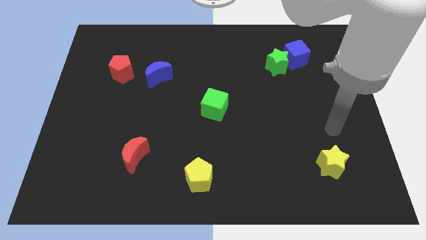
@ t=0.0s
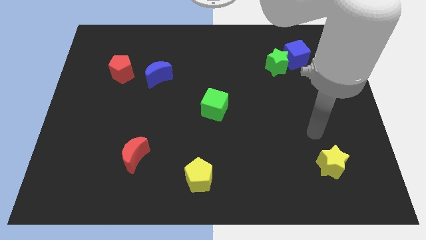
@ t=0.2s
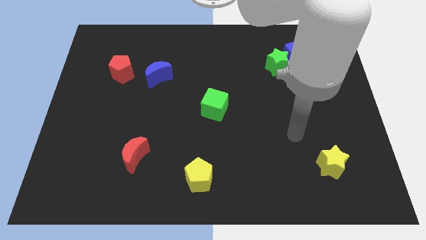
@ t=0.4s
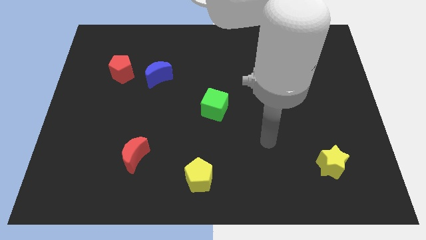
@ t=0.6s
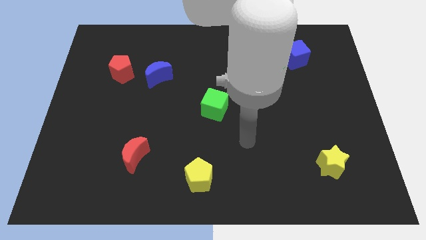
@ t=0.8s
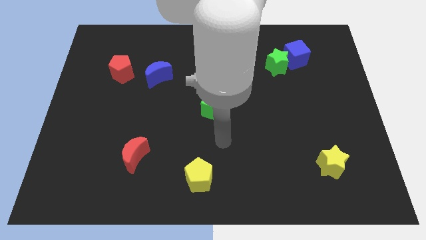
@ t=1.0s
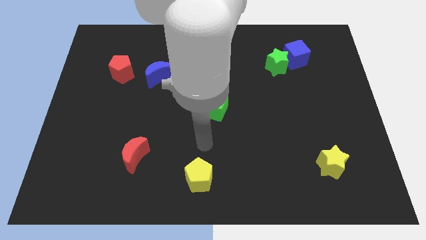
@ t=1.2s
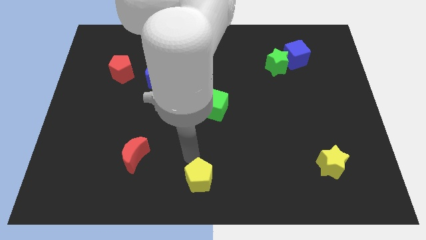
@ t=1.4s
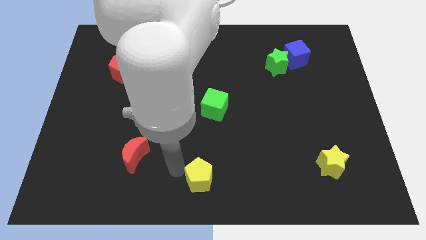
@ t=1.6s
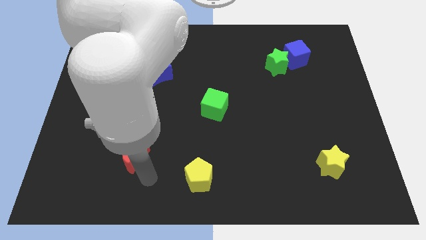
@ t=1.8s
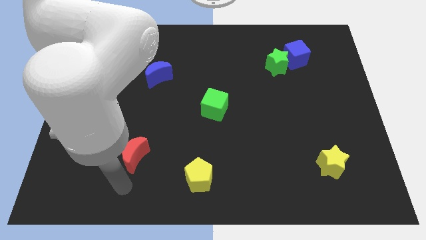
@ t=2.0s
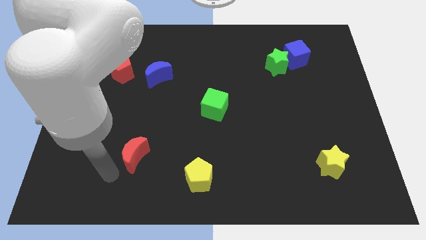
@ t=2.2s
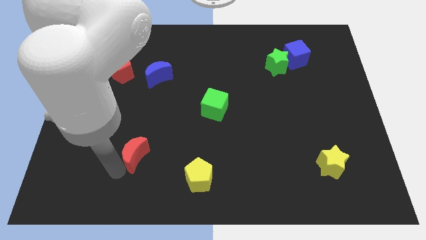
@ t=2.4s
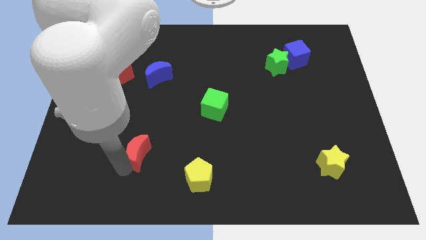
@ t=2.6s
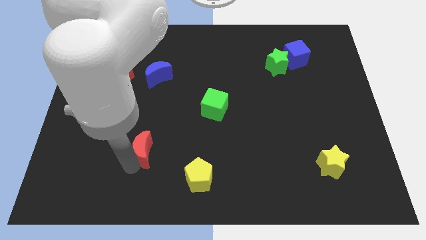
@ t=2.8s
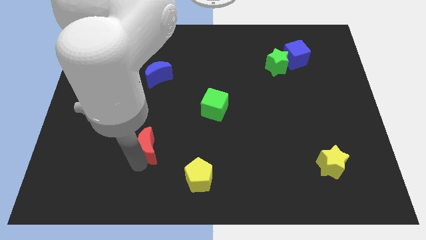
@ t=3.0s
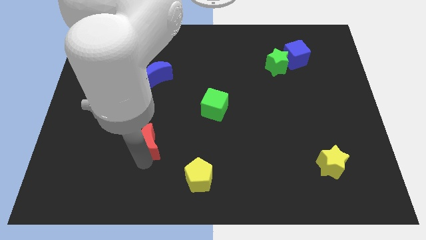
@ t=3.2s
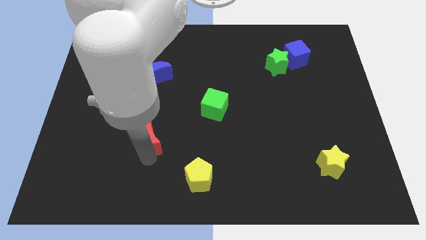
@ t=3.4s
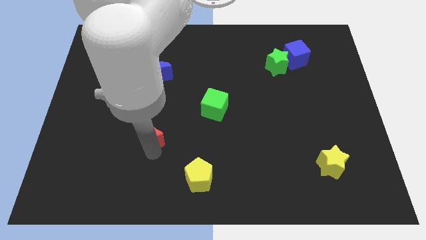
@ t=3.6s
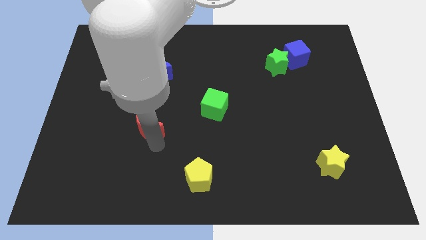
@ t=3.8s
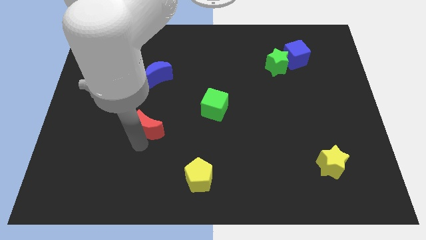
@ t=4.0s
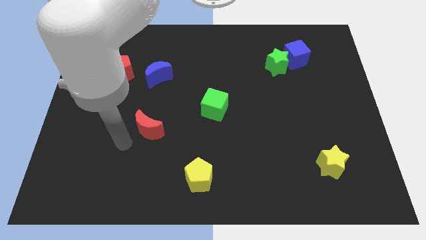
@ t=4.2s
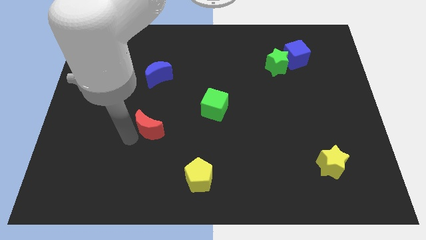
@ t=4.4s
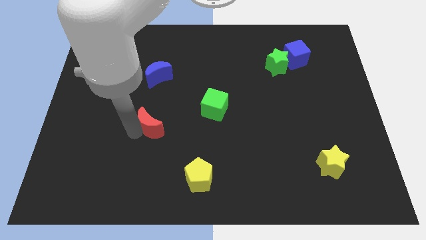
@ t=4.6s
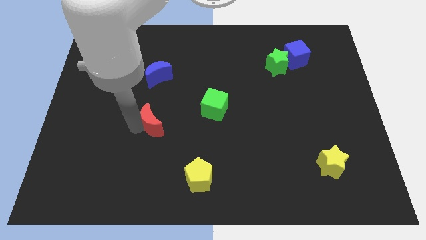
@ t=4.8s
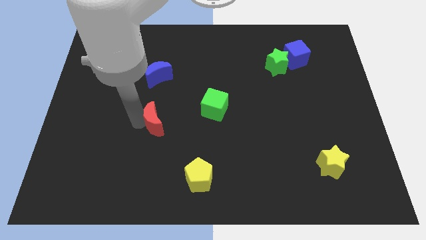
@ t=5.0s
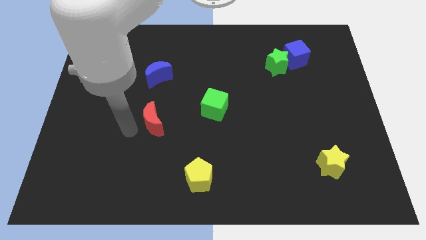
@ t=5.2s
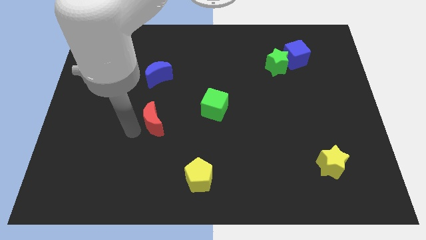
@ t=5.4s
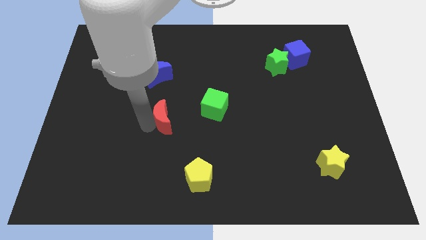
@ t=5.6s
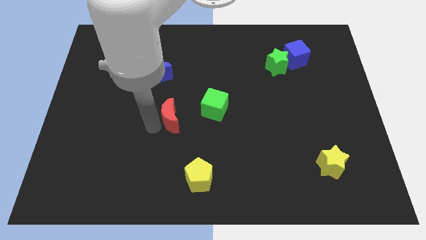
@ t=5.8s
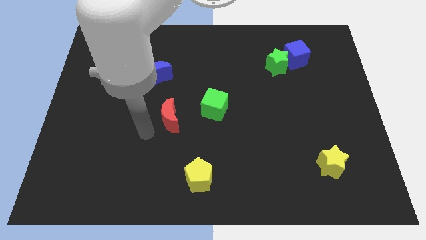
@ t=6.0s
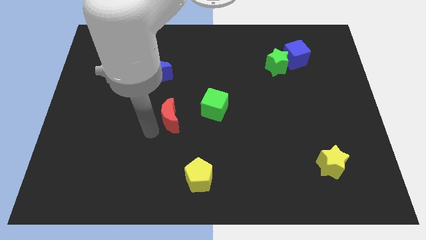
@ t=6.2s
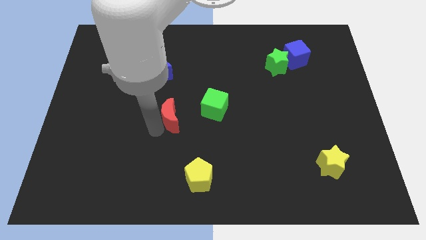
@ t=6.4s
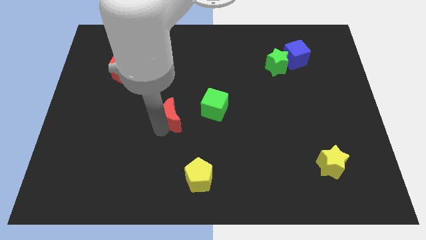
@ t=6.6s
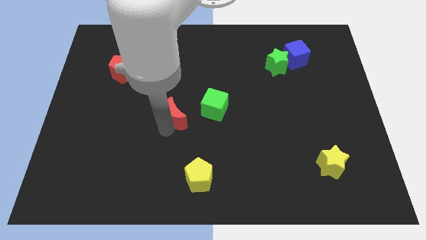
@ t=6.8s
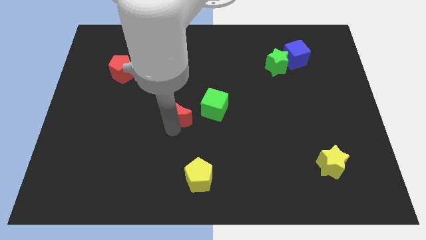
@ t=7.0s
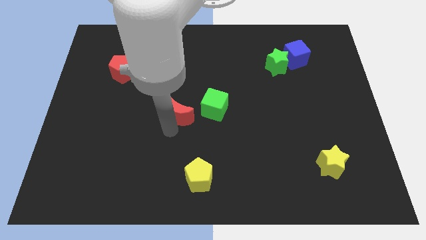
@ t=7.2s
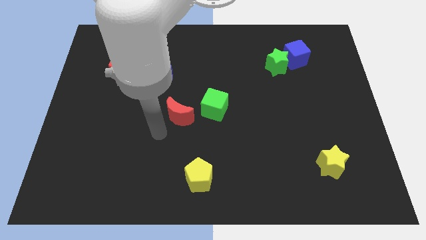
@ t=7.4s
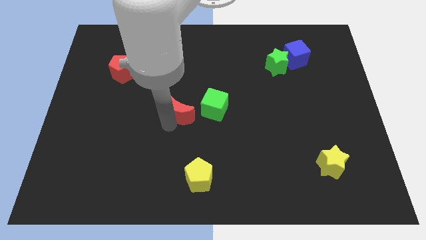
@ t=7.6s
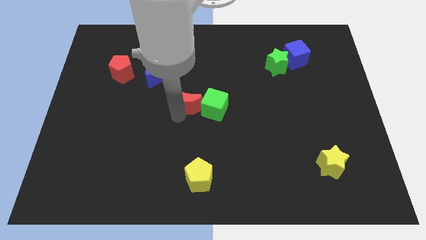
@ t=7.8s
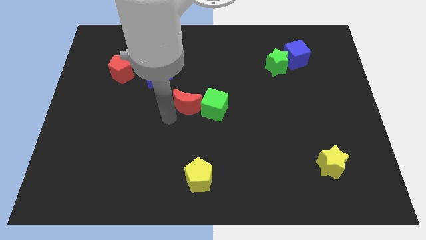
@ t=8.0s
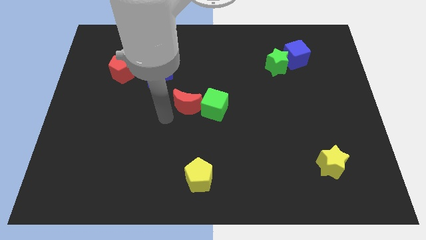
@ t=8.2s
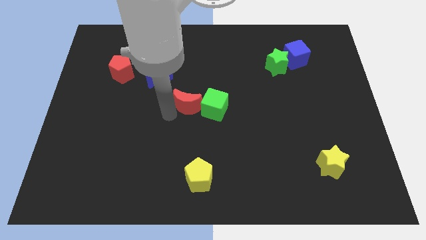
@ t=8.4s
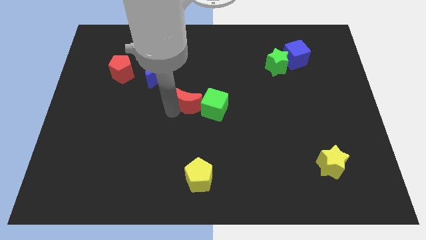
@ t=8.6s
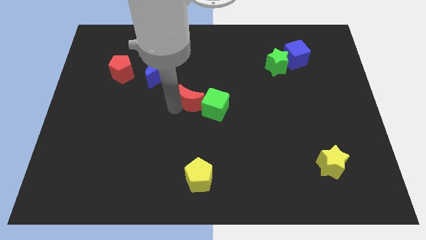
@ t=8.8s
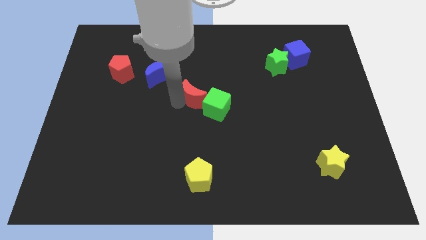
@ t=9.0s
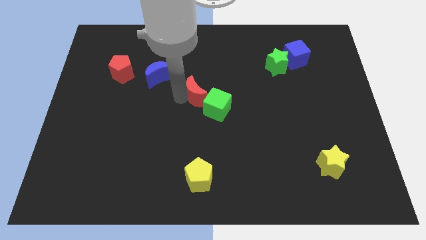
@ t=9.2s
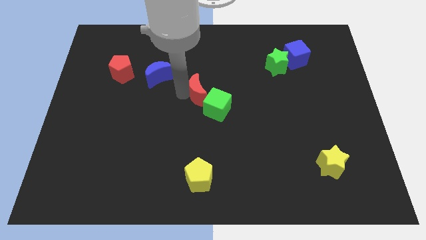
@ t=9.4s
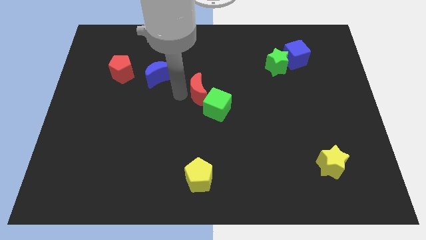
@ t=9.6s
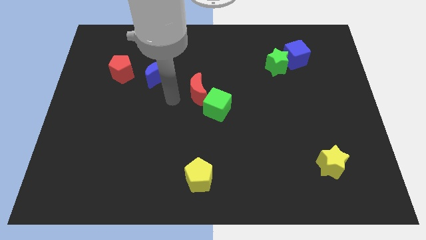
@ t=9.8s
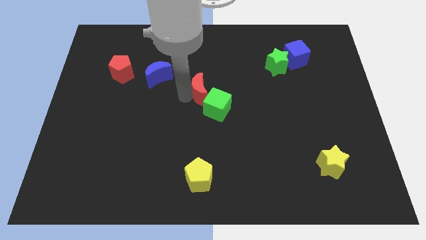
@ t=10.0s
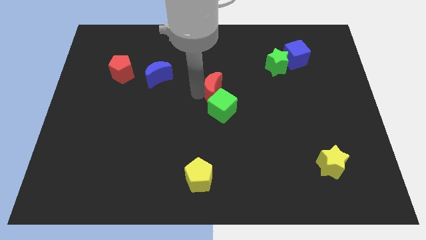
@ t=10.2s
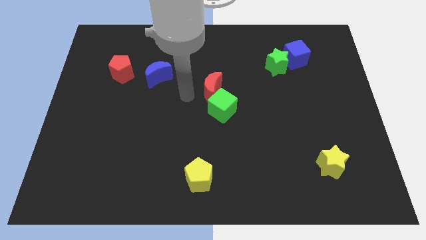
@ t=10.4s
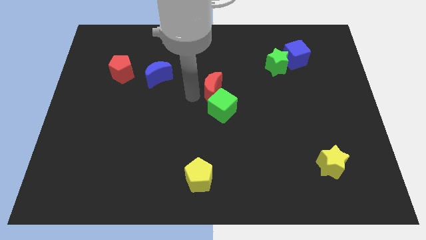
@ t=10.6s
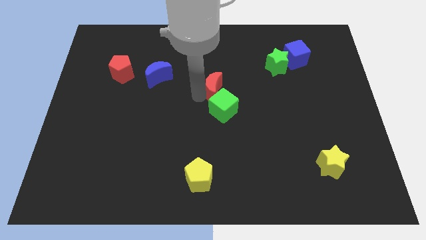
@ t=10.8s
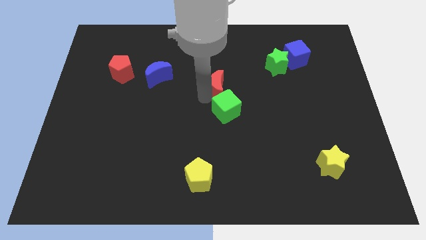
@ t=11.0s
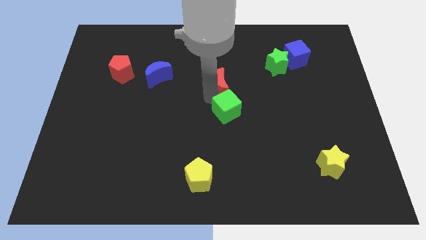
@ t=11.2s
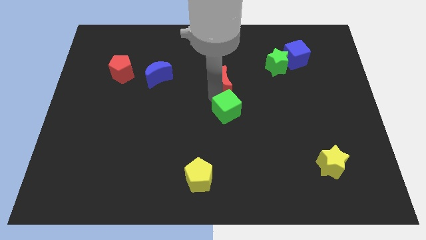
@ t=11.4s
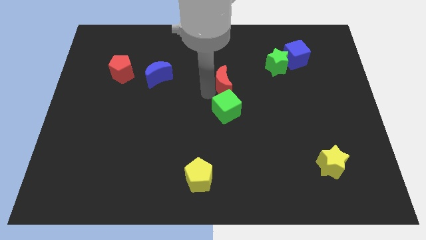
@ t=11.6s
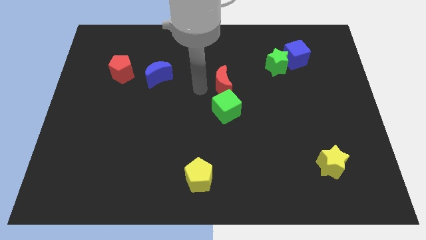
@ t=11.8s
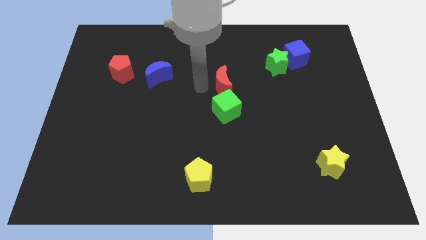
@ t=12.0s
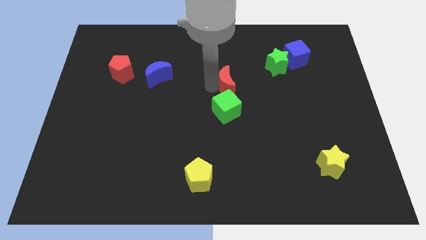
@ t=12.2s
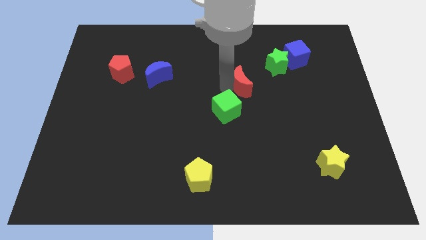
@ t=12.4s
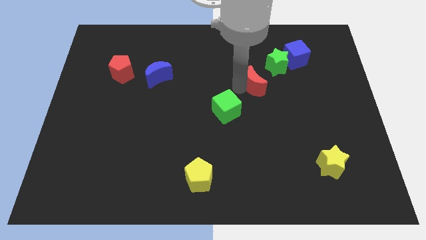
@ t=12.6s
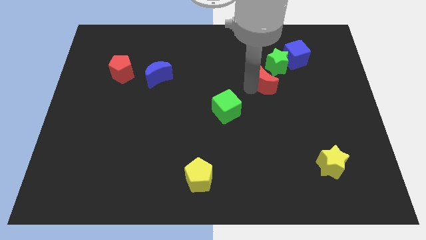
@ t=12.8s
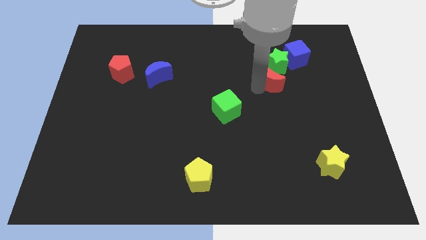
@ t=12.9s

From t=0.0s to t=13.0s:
push the red moon to the green star

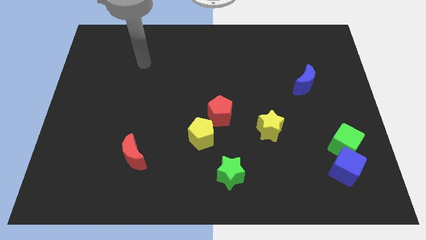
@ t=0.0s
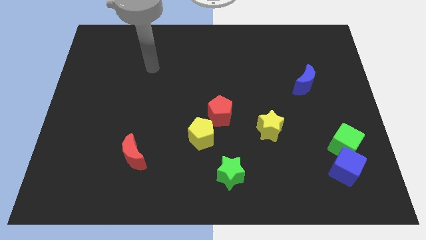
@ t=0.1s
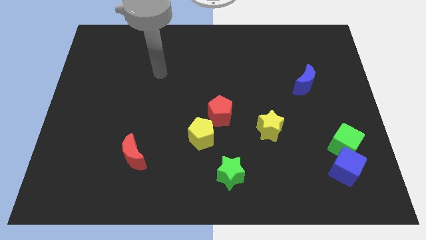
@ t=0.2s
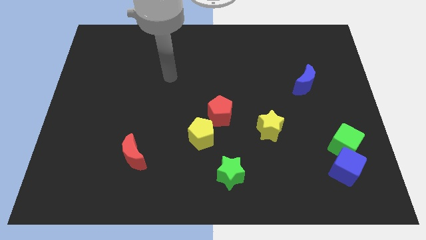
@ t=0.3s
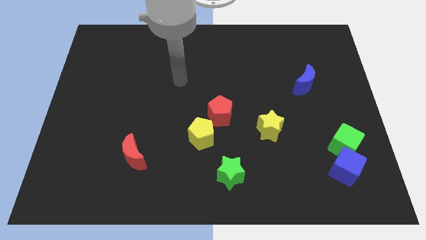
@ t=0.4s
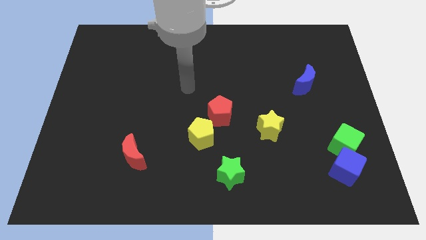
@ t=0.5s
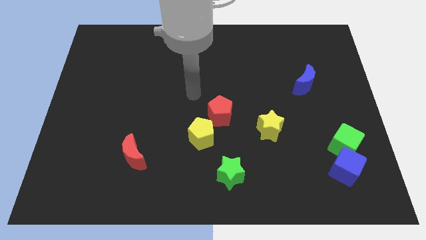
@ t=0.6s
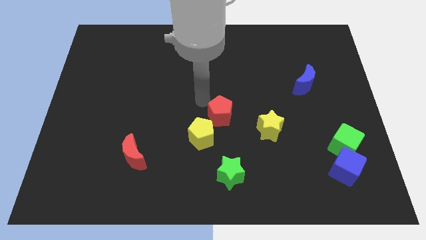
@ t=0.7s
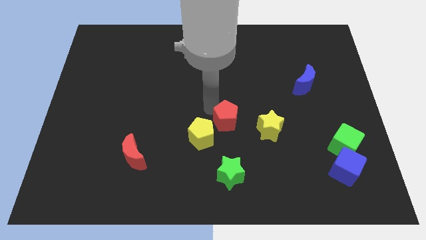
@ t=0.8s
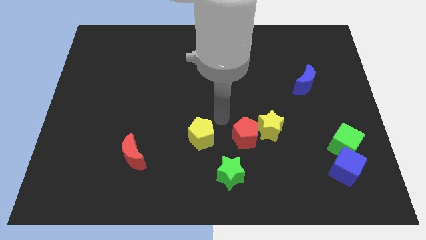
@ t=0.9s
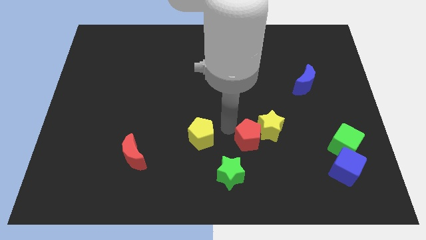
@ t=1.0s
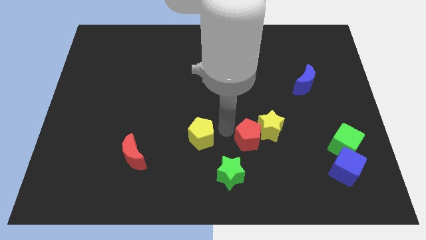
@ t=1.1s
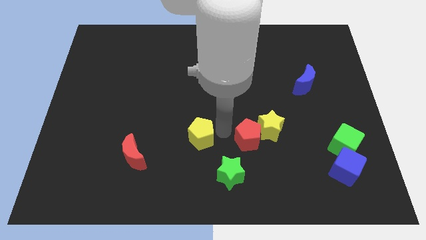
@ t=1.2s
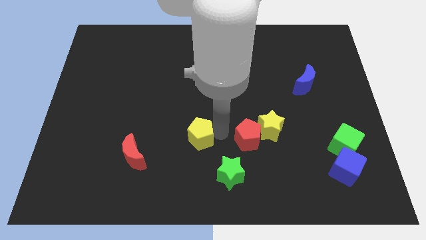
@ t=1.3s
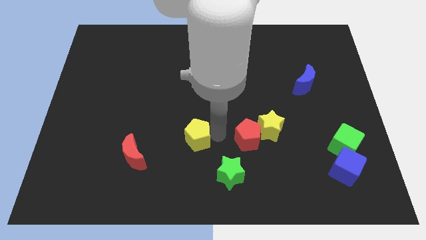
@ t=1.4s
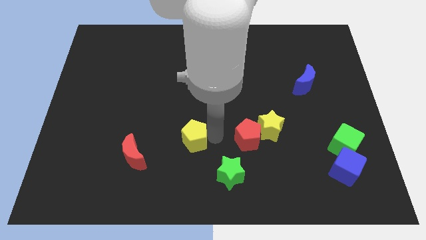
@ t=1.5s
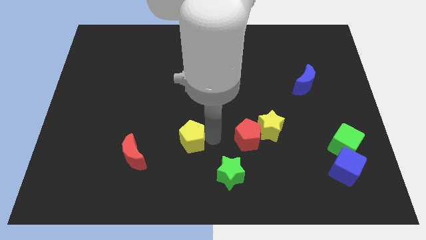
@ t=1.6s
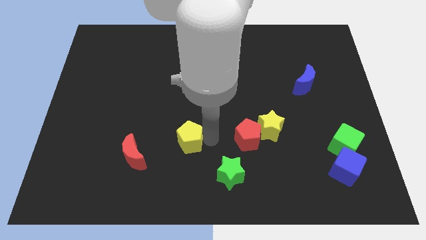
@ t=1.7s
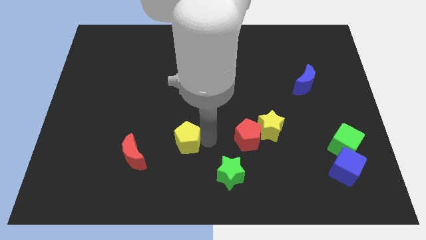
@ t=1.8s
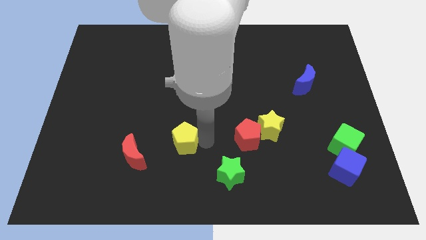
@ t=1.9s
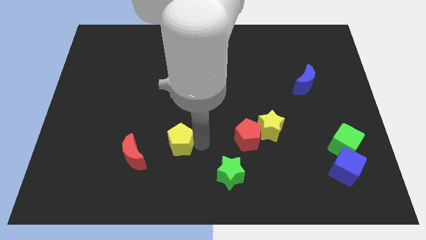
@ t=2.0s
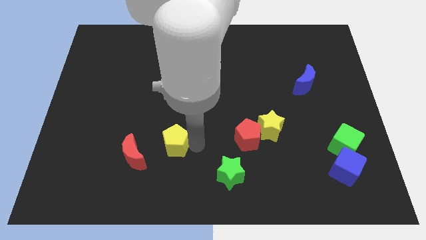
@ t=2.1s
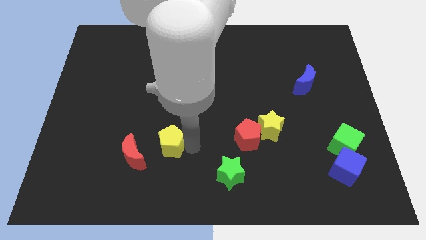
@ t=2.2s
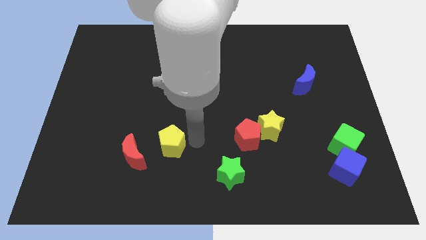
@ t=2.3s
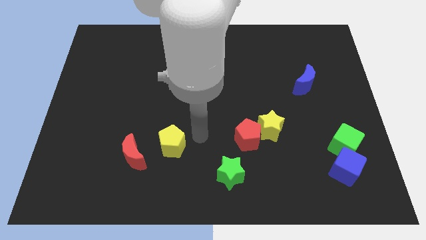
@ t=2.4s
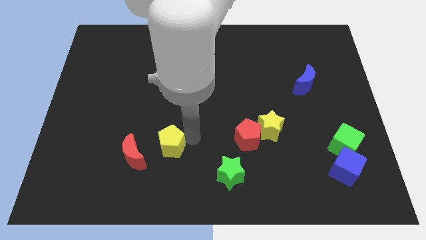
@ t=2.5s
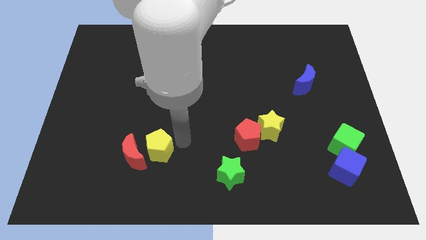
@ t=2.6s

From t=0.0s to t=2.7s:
move the yellow pentagon next to the red moon
